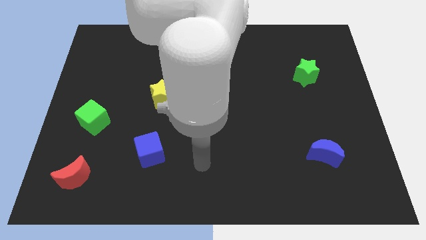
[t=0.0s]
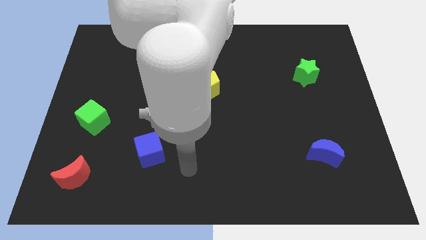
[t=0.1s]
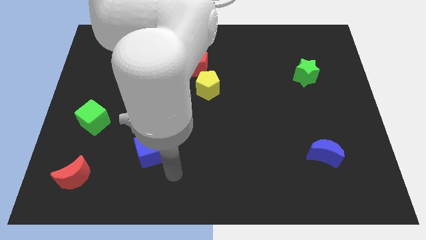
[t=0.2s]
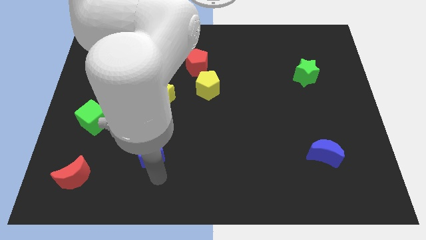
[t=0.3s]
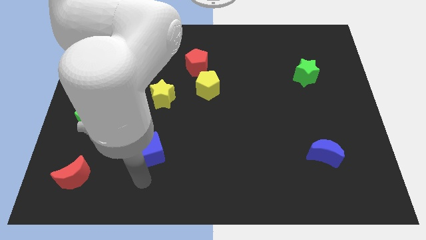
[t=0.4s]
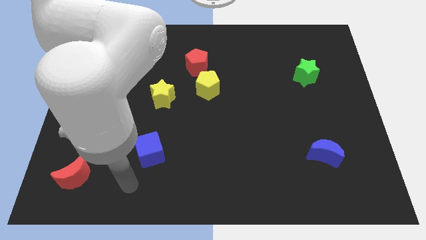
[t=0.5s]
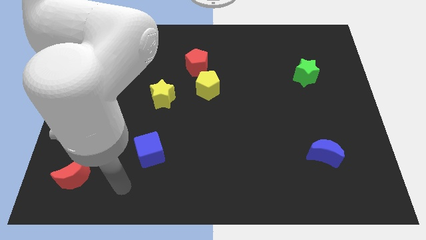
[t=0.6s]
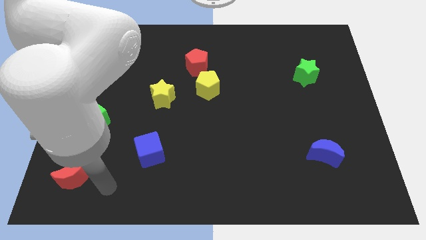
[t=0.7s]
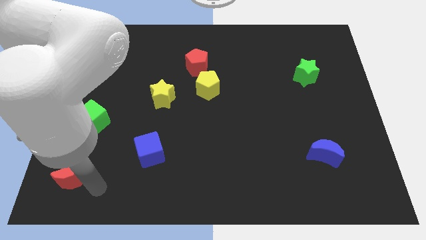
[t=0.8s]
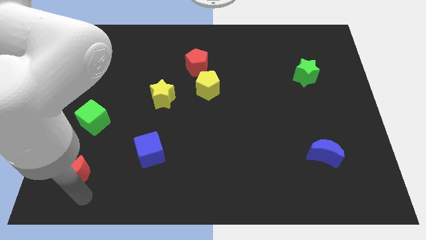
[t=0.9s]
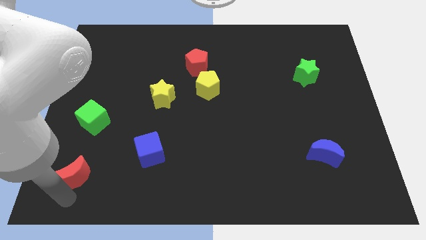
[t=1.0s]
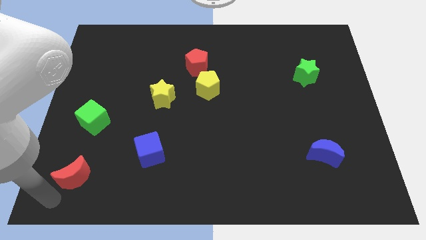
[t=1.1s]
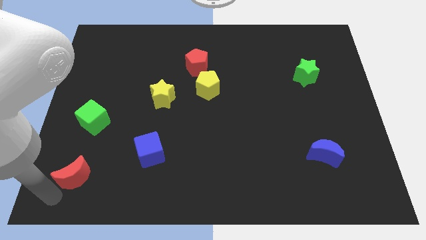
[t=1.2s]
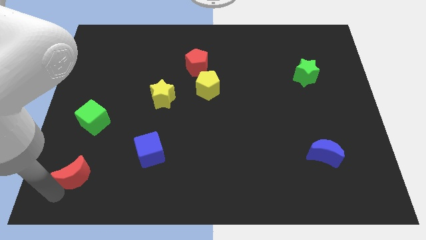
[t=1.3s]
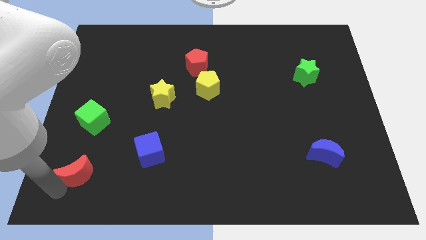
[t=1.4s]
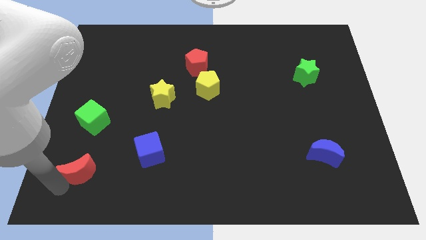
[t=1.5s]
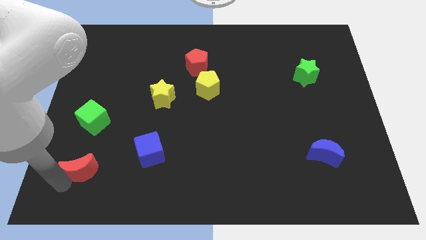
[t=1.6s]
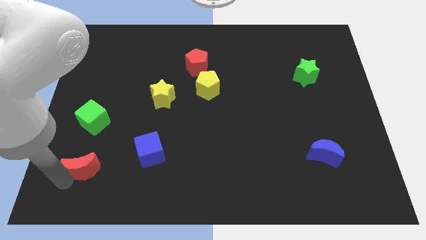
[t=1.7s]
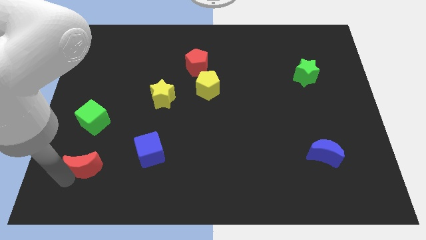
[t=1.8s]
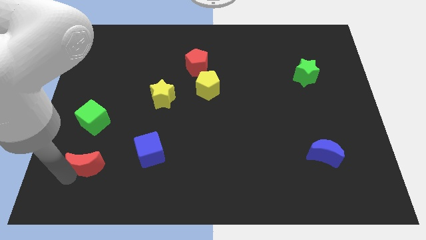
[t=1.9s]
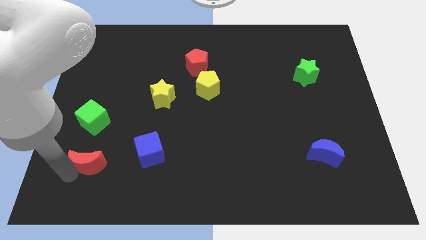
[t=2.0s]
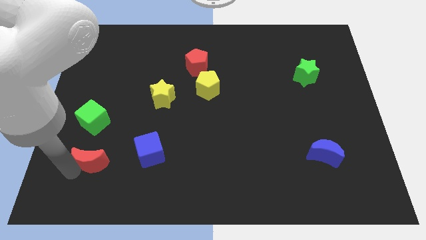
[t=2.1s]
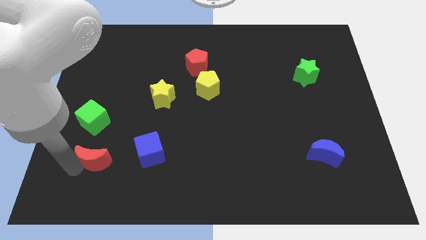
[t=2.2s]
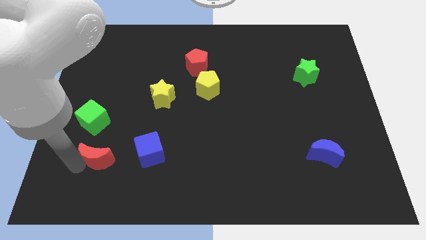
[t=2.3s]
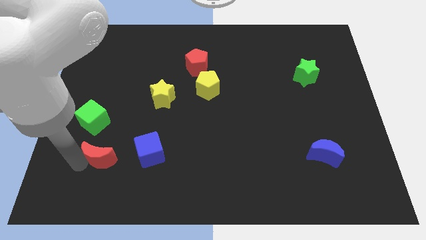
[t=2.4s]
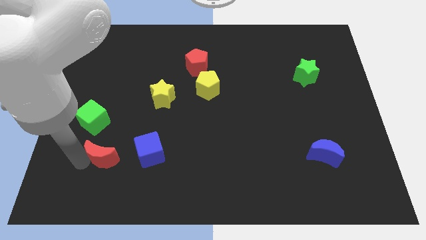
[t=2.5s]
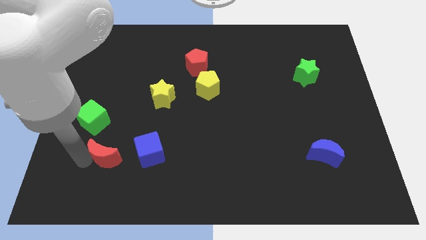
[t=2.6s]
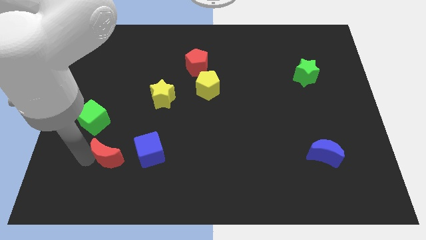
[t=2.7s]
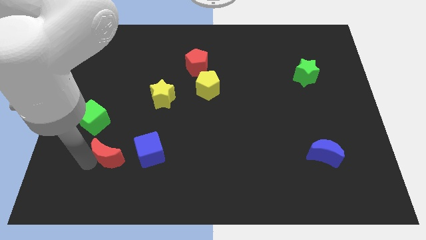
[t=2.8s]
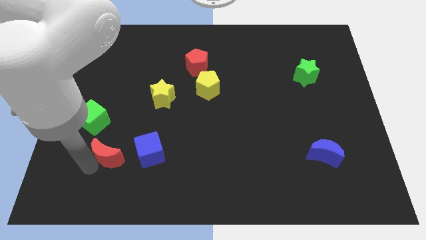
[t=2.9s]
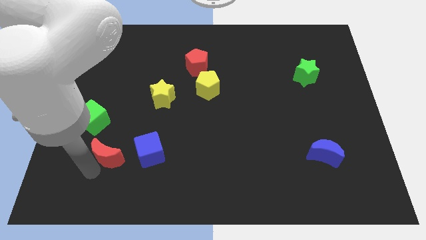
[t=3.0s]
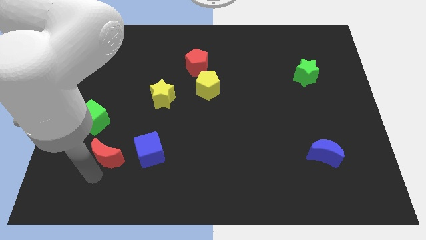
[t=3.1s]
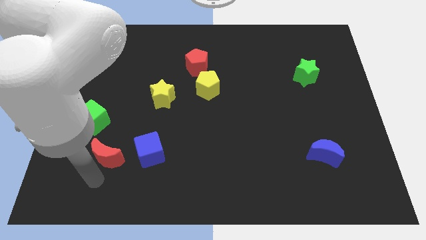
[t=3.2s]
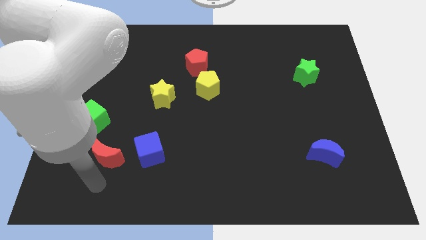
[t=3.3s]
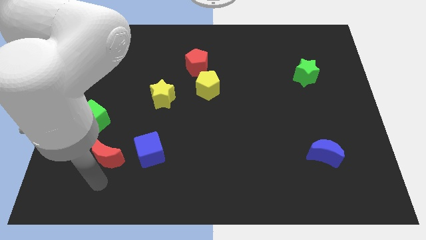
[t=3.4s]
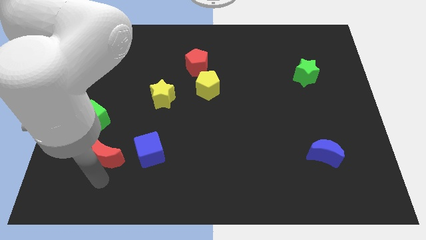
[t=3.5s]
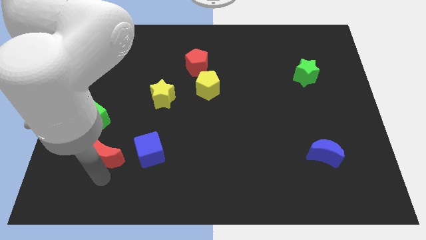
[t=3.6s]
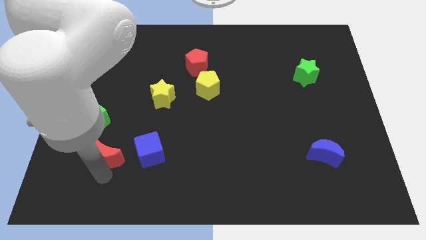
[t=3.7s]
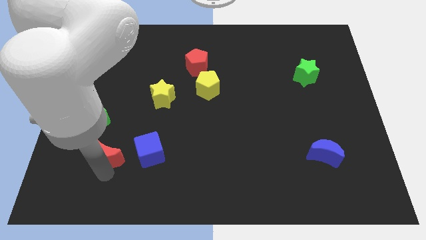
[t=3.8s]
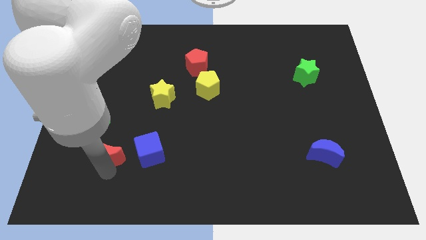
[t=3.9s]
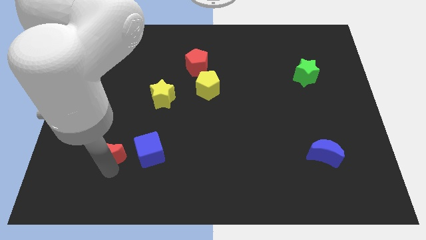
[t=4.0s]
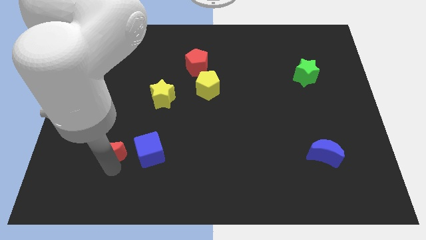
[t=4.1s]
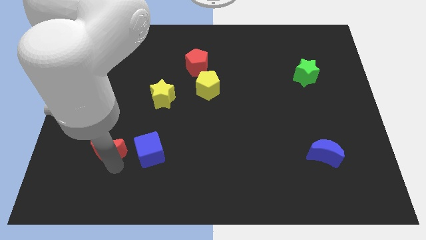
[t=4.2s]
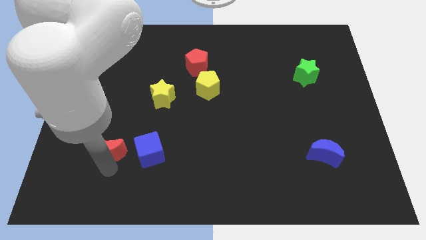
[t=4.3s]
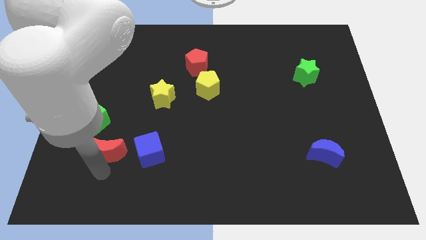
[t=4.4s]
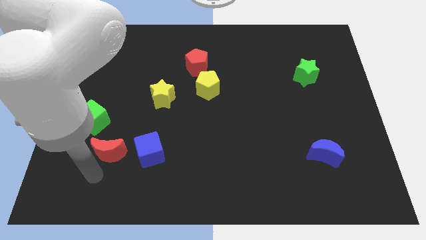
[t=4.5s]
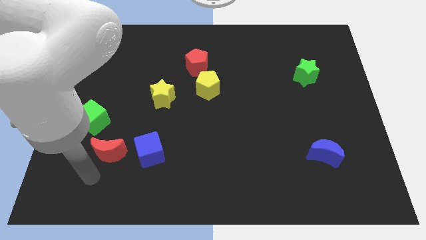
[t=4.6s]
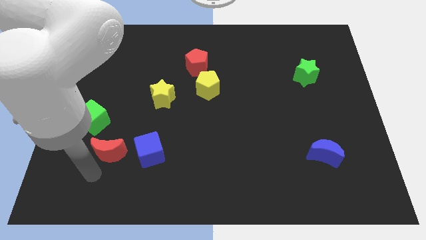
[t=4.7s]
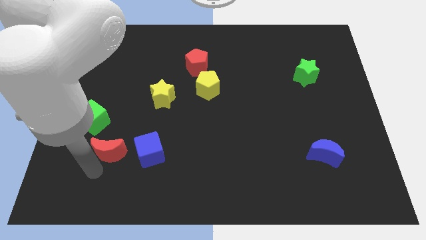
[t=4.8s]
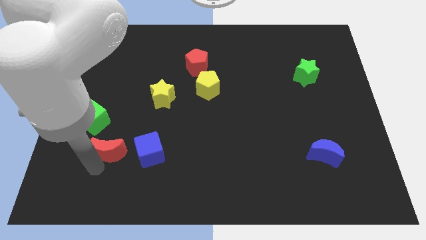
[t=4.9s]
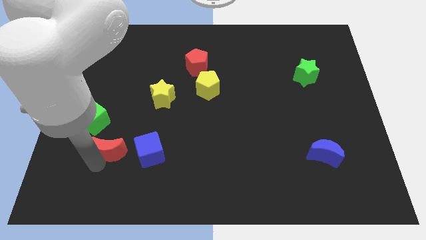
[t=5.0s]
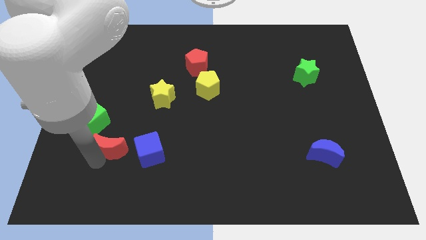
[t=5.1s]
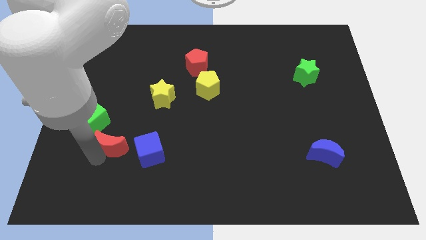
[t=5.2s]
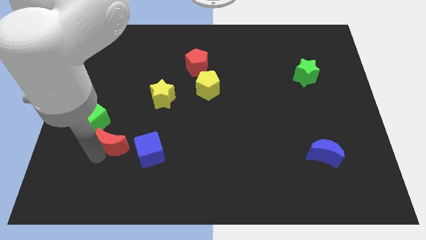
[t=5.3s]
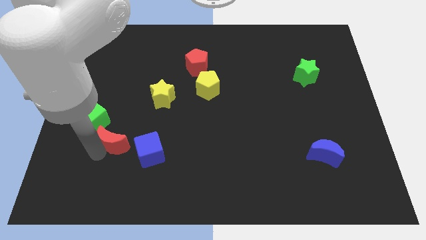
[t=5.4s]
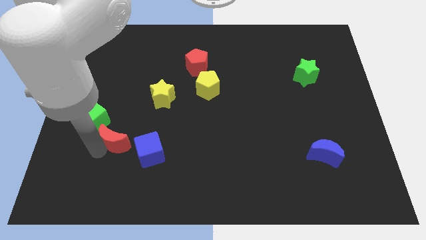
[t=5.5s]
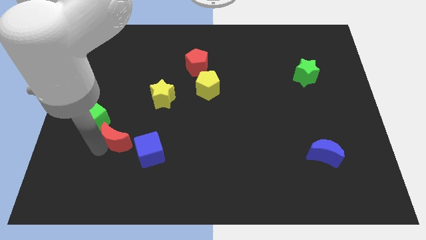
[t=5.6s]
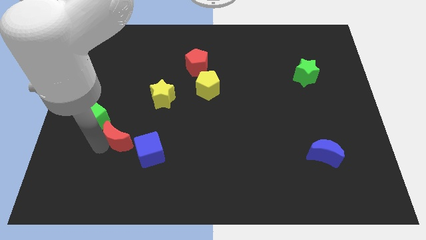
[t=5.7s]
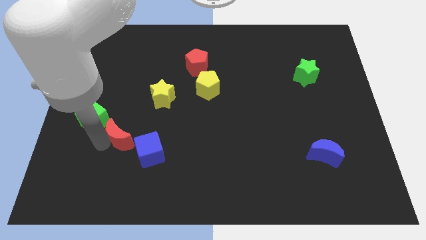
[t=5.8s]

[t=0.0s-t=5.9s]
push the red moon to the right of the green cube

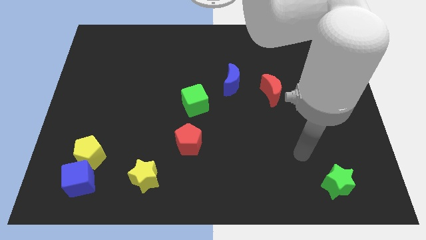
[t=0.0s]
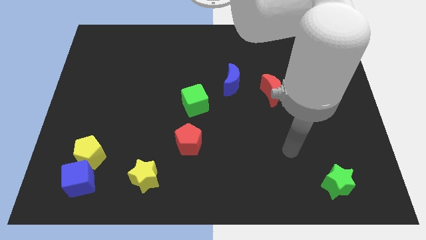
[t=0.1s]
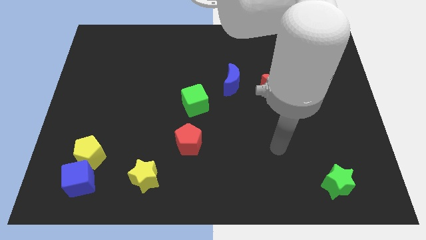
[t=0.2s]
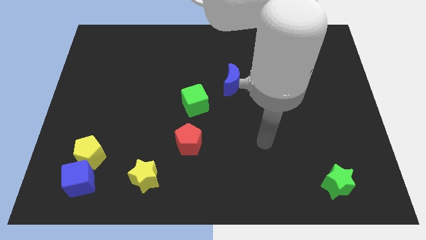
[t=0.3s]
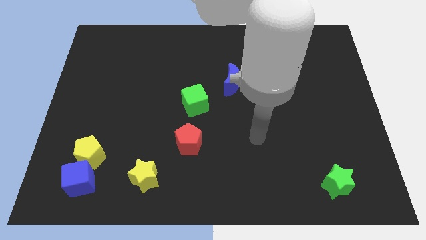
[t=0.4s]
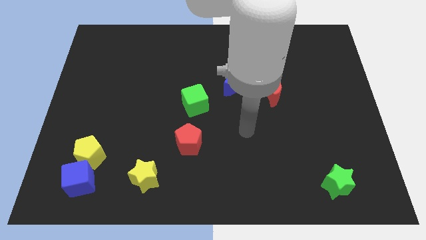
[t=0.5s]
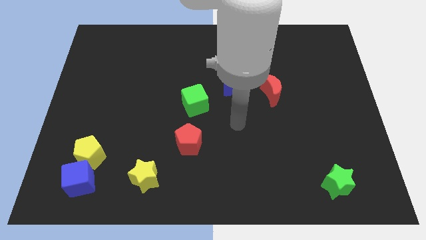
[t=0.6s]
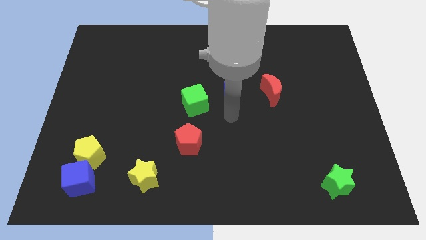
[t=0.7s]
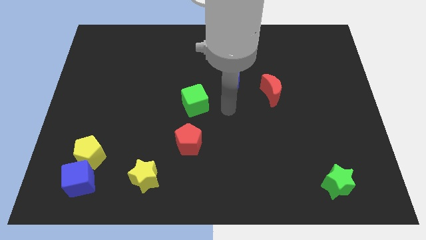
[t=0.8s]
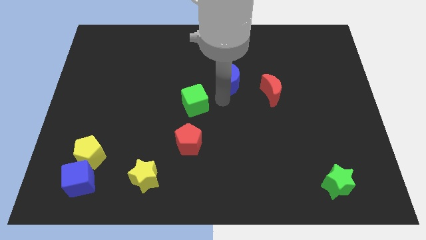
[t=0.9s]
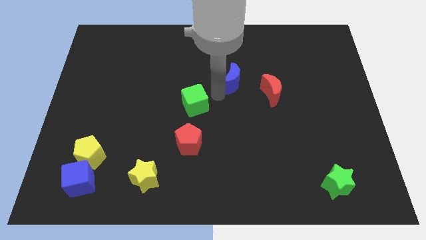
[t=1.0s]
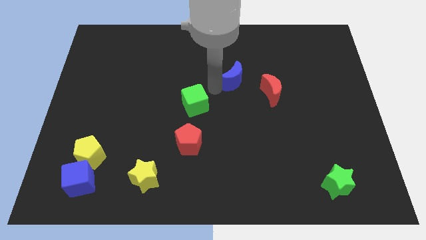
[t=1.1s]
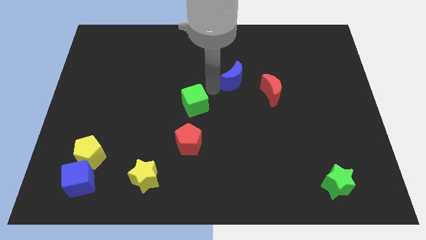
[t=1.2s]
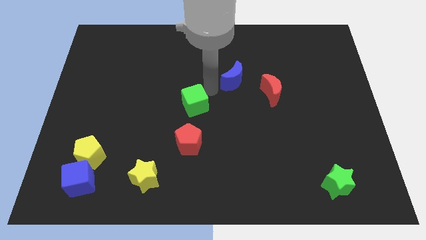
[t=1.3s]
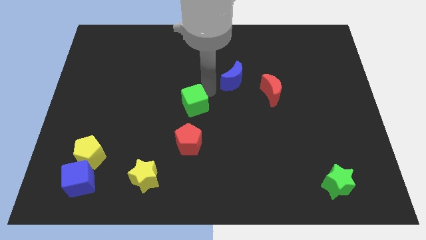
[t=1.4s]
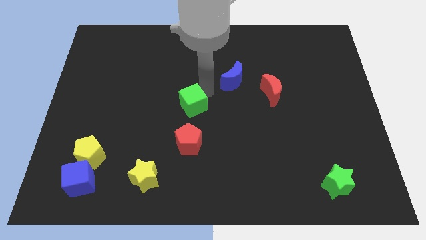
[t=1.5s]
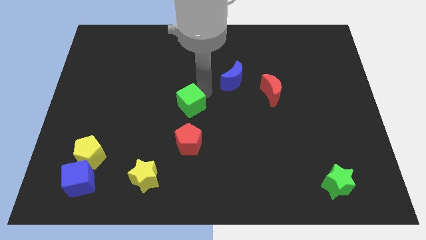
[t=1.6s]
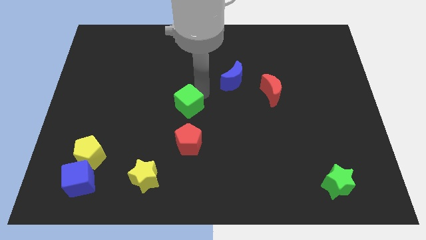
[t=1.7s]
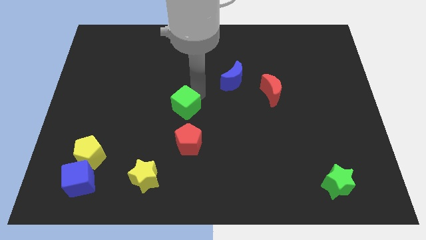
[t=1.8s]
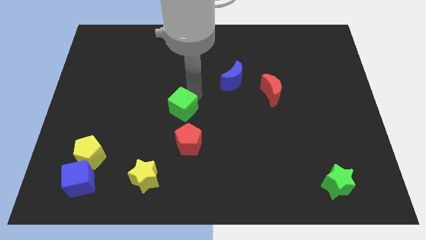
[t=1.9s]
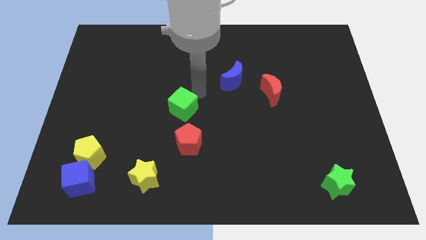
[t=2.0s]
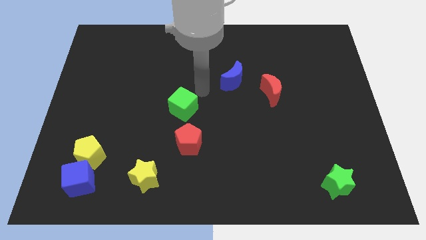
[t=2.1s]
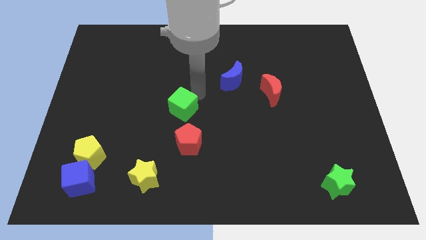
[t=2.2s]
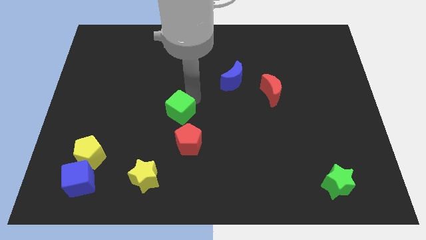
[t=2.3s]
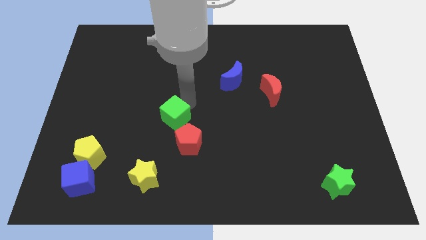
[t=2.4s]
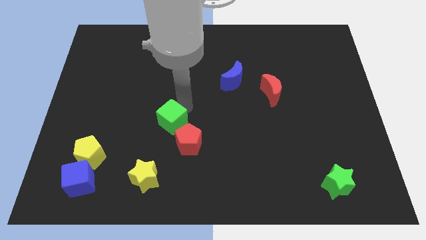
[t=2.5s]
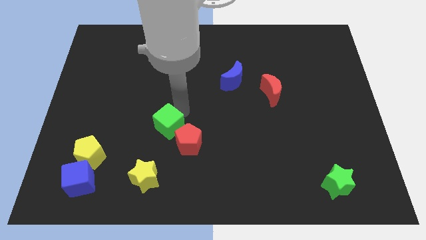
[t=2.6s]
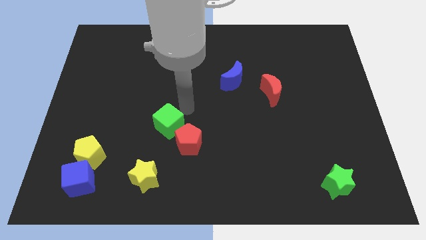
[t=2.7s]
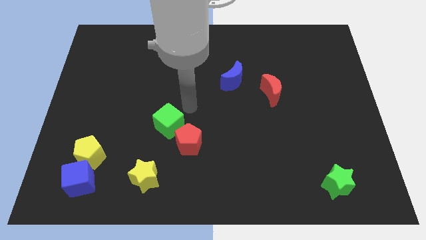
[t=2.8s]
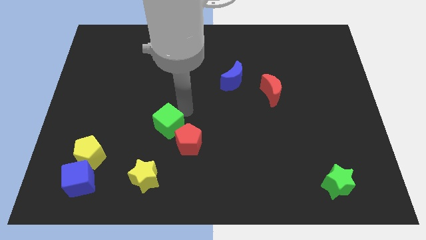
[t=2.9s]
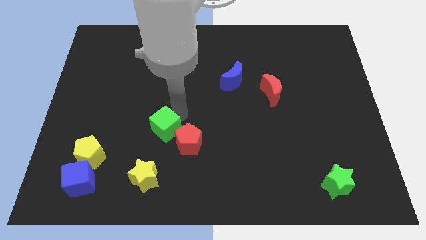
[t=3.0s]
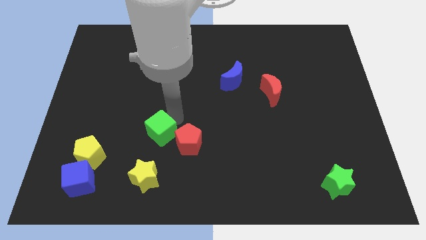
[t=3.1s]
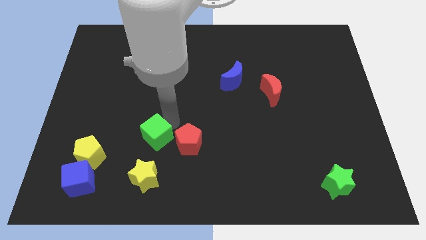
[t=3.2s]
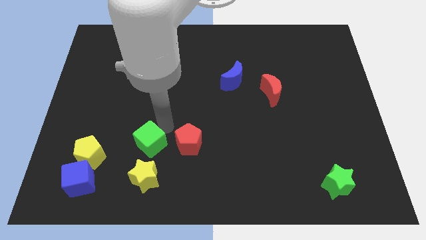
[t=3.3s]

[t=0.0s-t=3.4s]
move the green cube to the right side of the yellow pentagon
